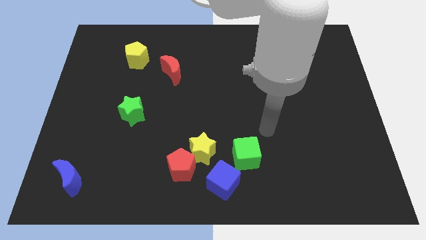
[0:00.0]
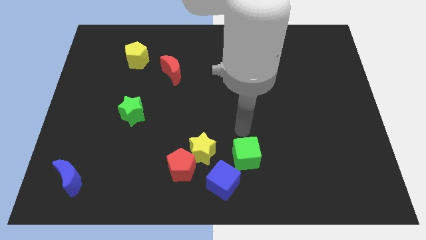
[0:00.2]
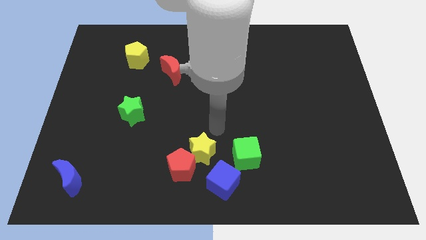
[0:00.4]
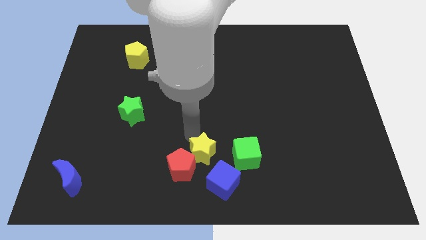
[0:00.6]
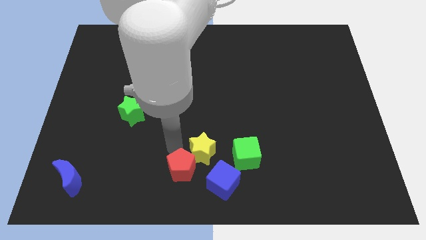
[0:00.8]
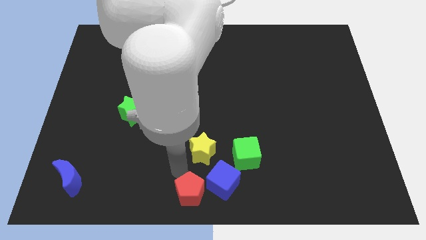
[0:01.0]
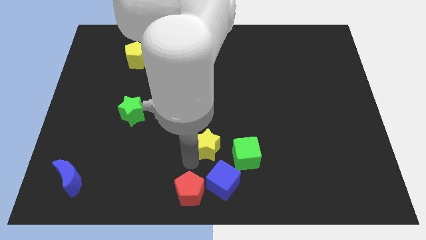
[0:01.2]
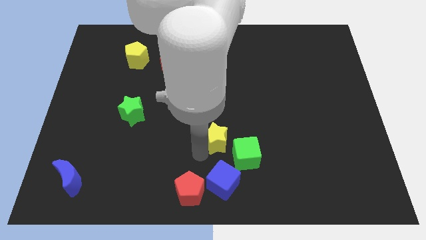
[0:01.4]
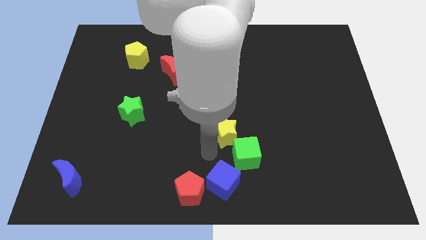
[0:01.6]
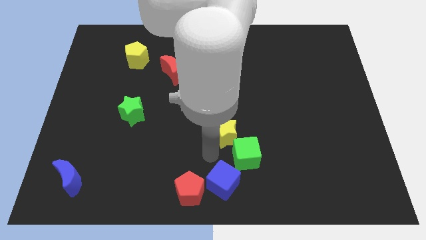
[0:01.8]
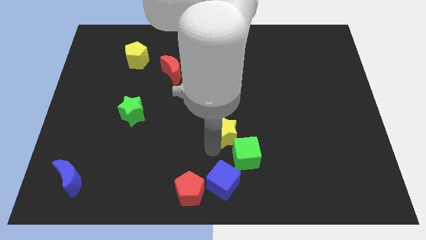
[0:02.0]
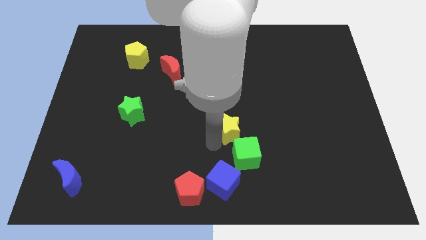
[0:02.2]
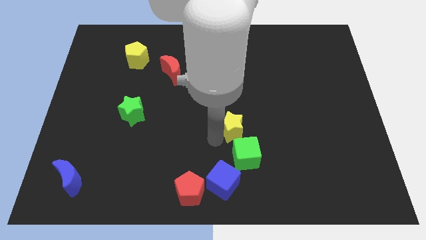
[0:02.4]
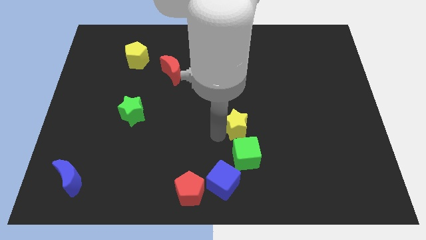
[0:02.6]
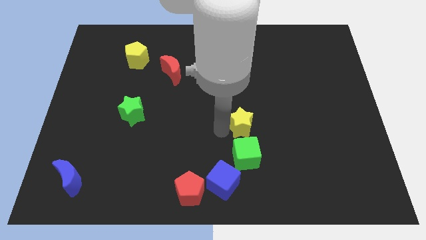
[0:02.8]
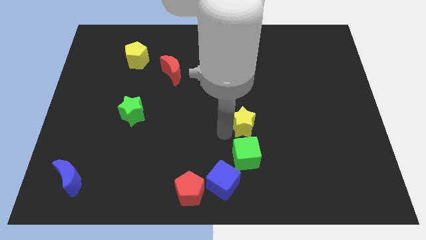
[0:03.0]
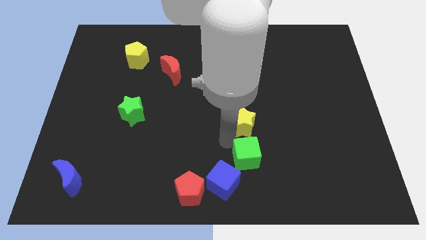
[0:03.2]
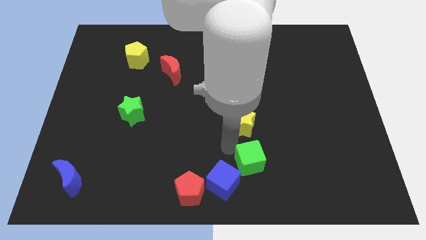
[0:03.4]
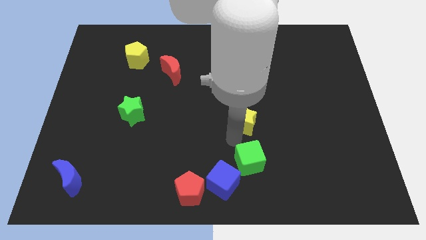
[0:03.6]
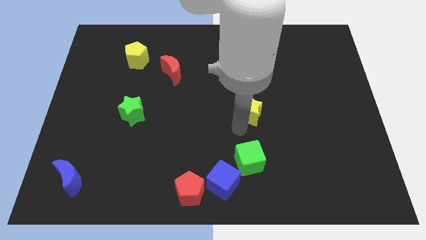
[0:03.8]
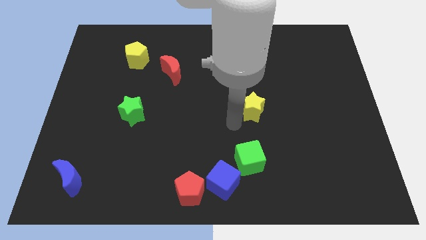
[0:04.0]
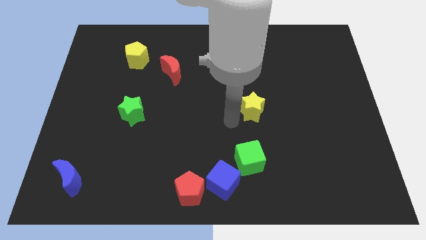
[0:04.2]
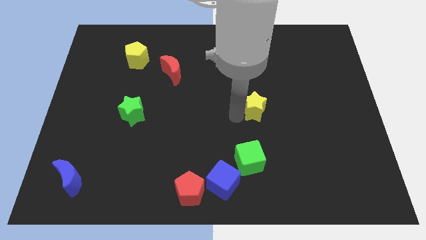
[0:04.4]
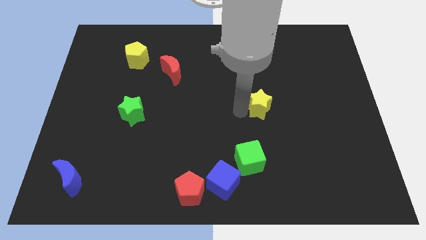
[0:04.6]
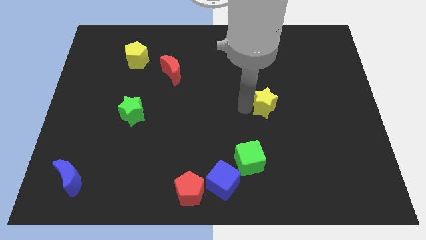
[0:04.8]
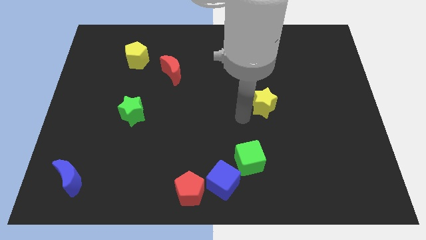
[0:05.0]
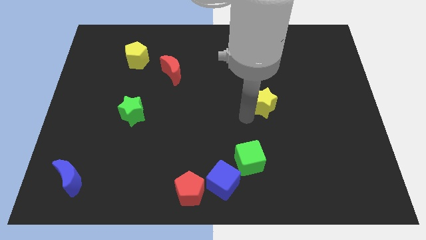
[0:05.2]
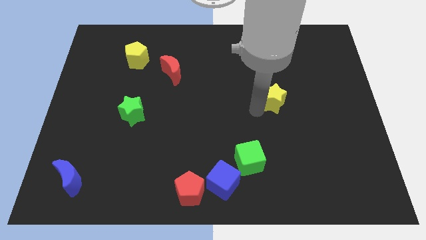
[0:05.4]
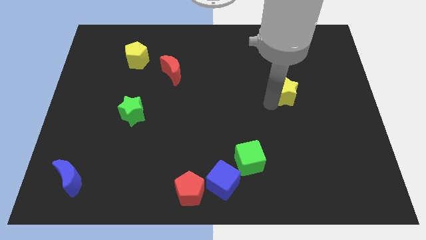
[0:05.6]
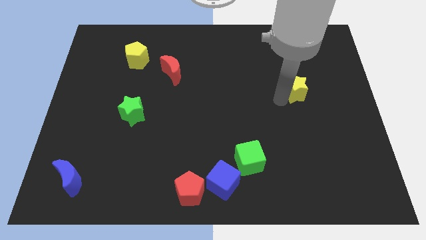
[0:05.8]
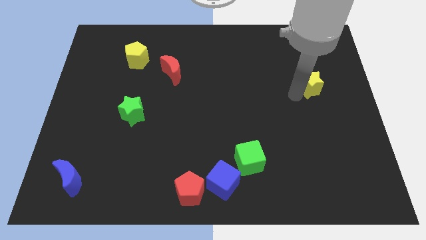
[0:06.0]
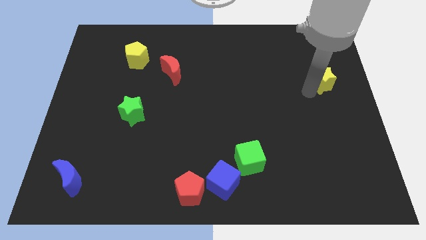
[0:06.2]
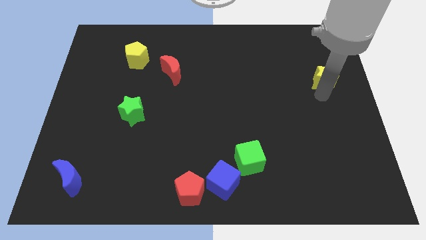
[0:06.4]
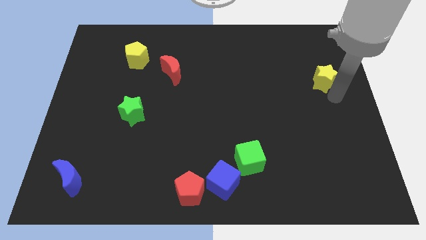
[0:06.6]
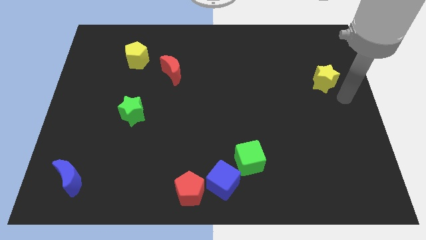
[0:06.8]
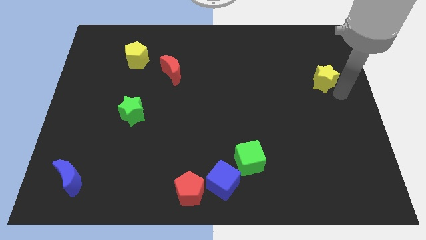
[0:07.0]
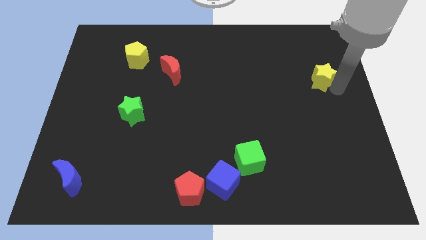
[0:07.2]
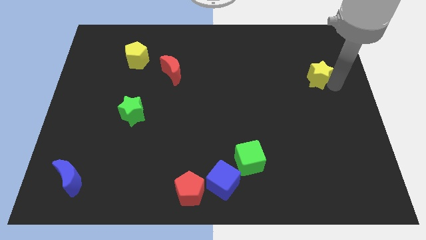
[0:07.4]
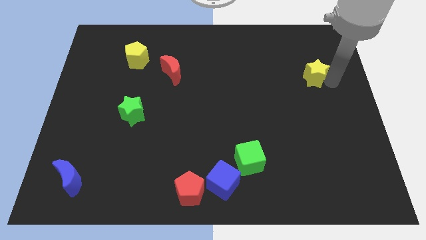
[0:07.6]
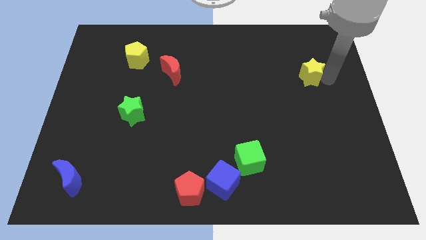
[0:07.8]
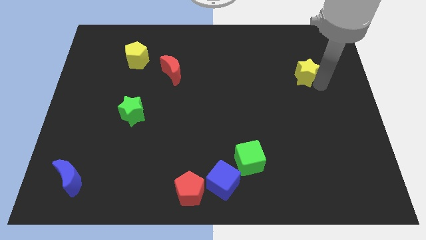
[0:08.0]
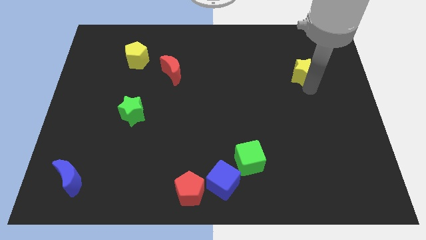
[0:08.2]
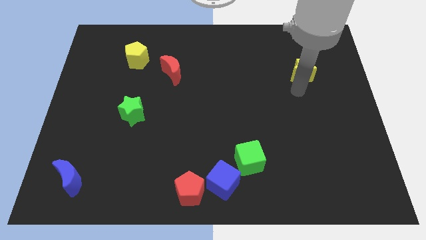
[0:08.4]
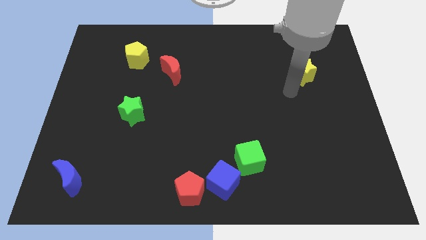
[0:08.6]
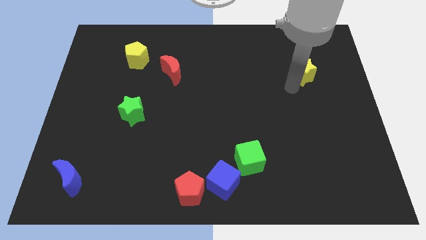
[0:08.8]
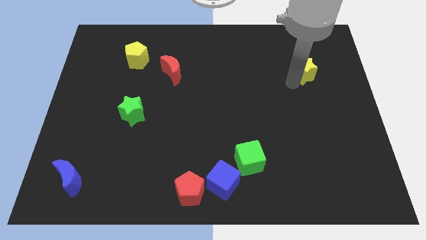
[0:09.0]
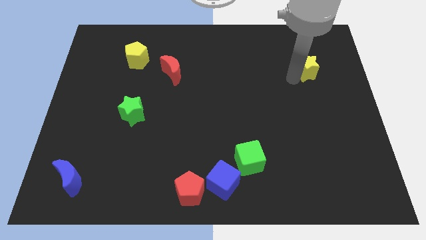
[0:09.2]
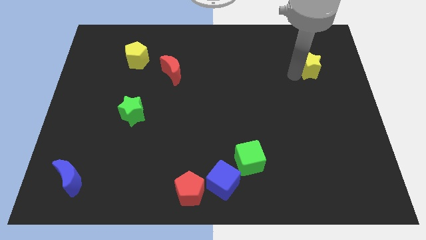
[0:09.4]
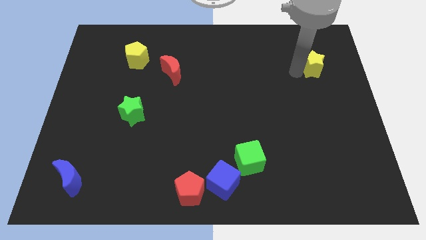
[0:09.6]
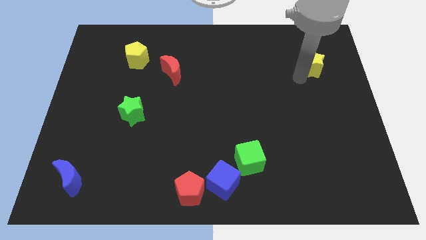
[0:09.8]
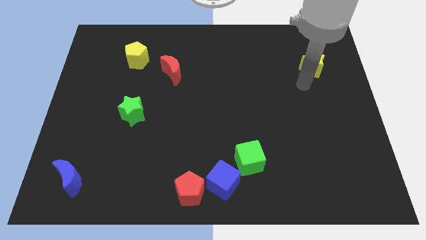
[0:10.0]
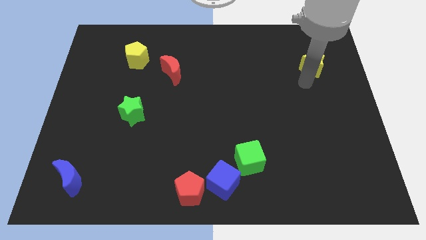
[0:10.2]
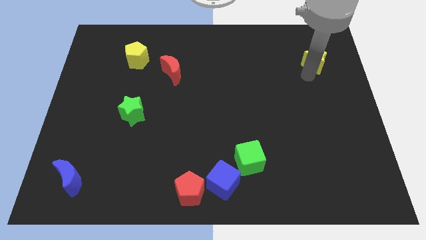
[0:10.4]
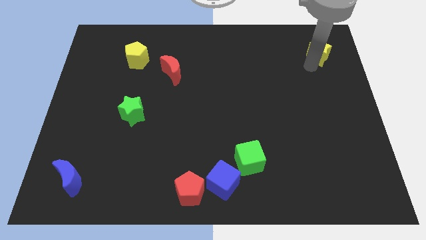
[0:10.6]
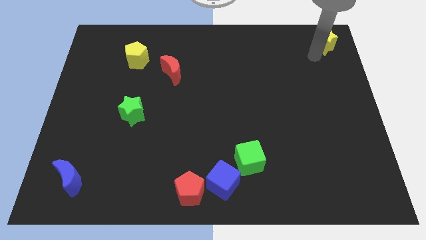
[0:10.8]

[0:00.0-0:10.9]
move the yellow star to the upper right corner

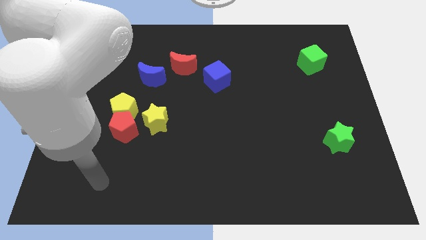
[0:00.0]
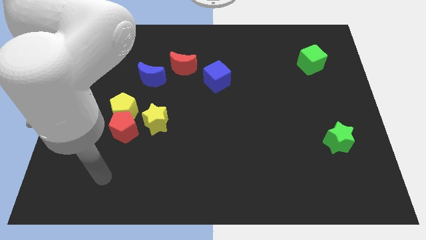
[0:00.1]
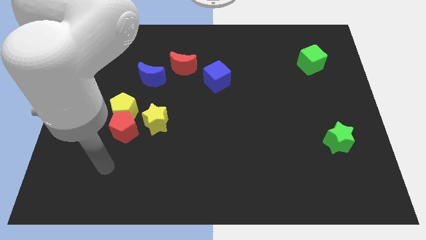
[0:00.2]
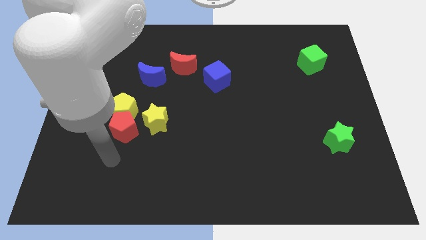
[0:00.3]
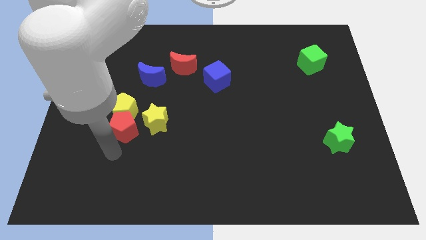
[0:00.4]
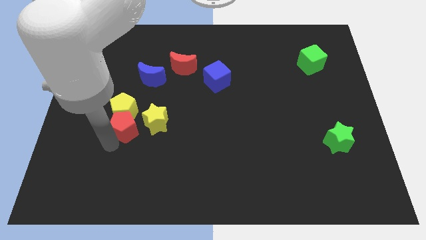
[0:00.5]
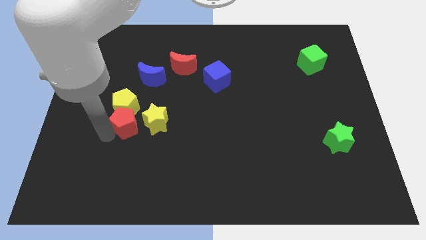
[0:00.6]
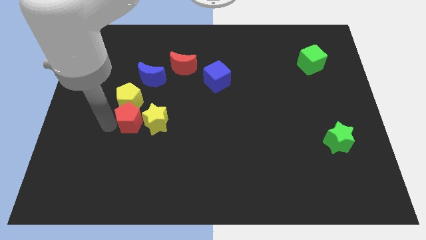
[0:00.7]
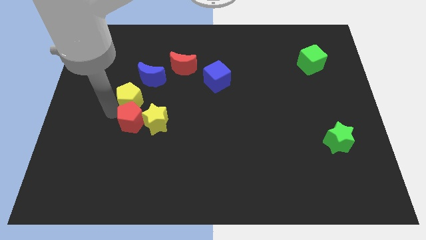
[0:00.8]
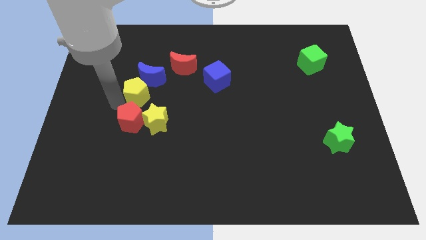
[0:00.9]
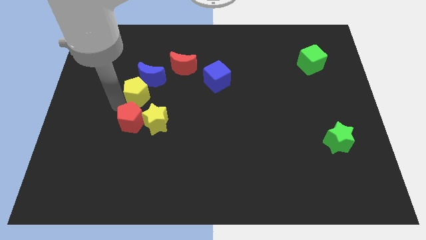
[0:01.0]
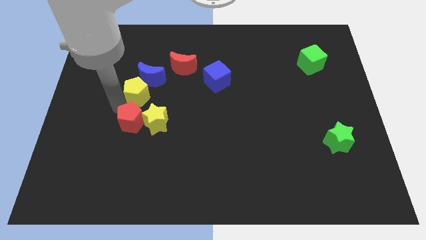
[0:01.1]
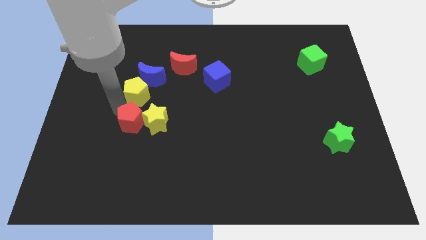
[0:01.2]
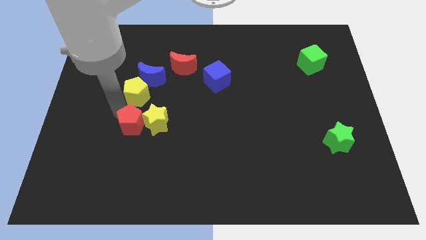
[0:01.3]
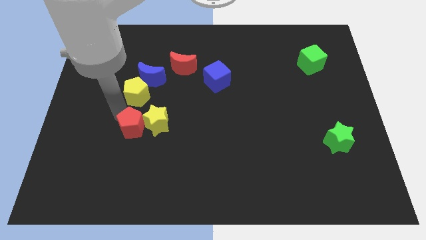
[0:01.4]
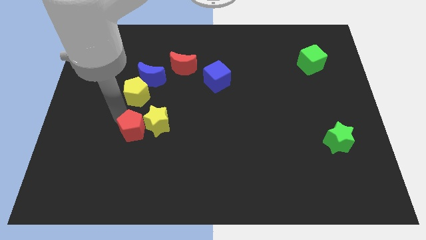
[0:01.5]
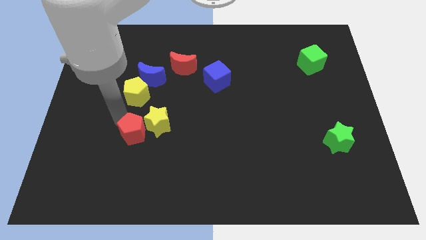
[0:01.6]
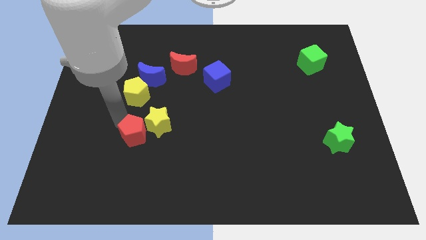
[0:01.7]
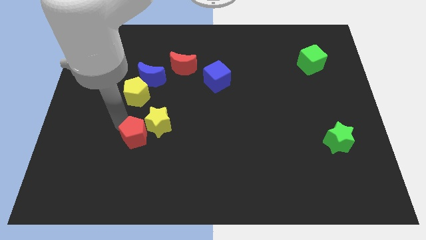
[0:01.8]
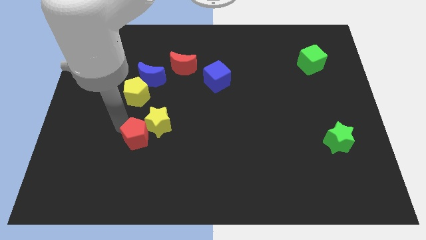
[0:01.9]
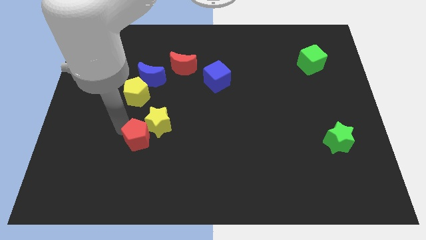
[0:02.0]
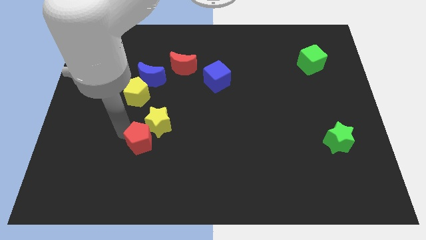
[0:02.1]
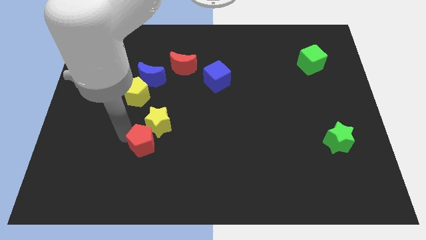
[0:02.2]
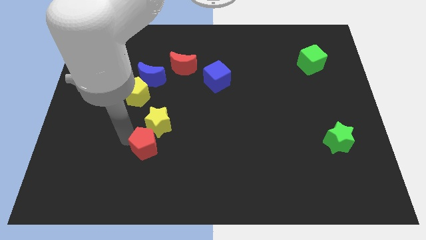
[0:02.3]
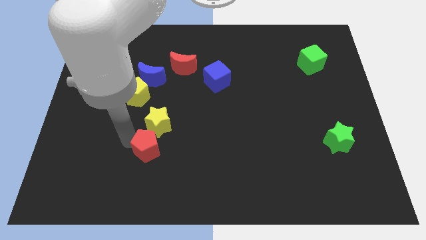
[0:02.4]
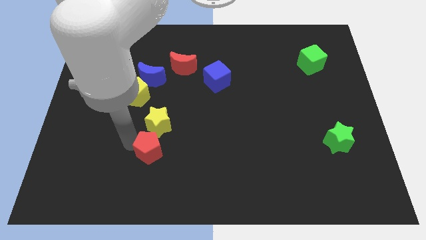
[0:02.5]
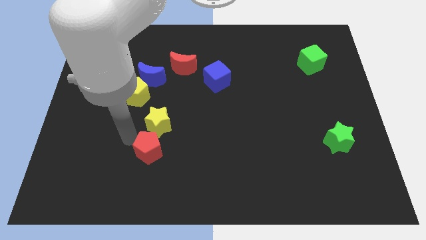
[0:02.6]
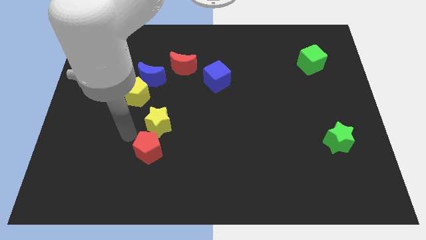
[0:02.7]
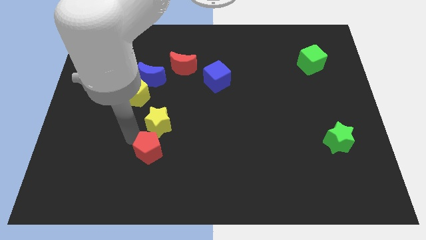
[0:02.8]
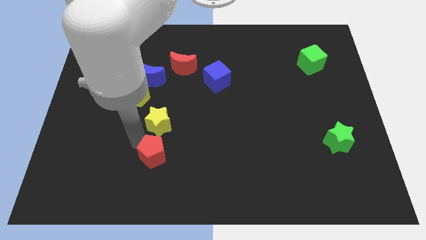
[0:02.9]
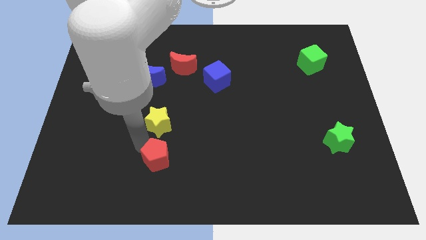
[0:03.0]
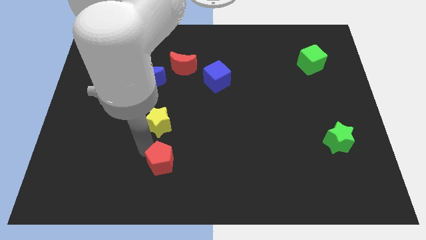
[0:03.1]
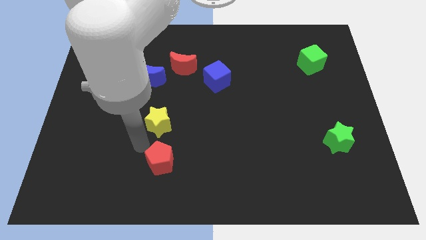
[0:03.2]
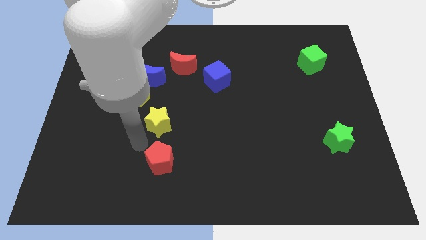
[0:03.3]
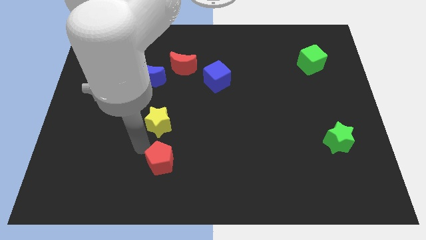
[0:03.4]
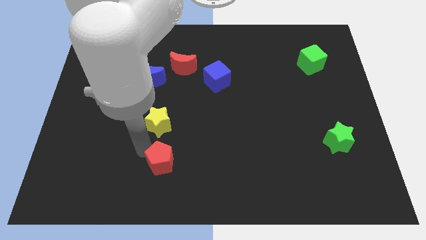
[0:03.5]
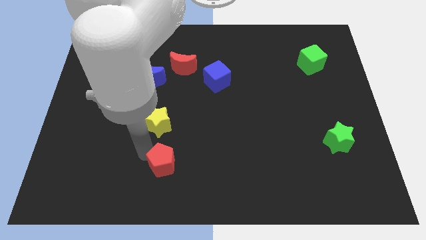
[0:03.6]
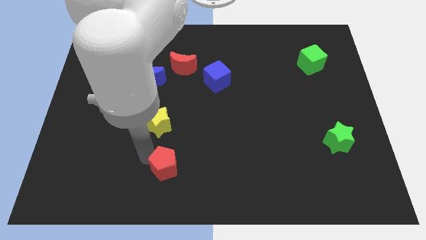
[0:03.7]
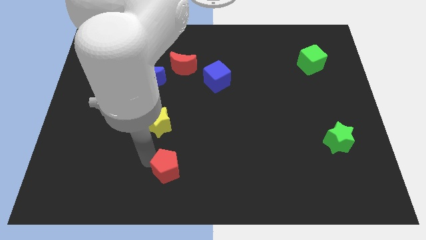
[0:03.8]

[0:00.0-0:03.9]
move the red pentagon to the bottom
